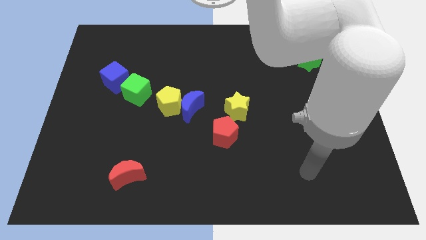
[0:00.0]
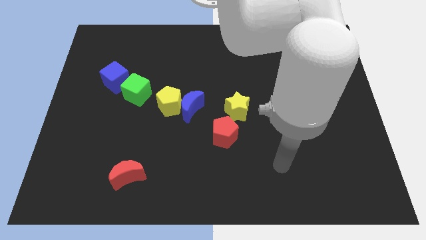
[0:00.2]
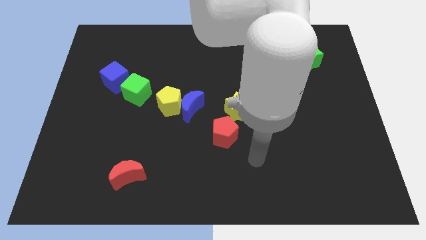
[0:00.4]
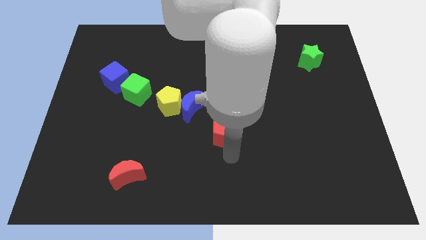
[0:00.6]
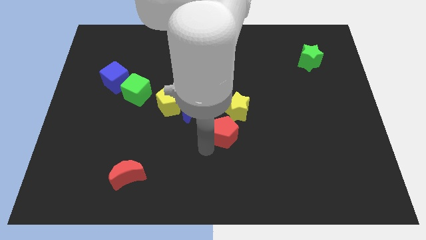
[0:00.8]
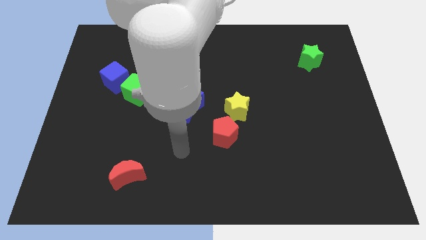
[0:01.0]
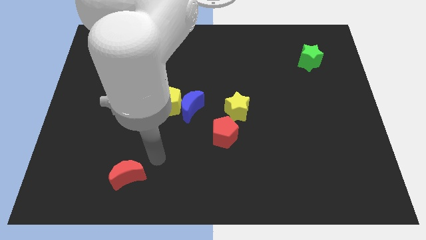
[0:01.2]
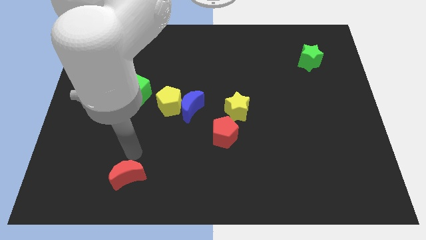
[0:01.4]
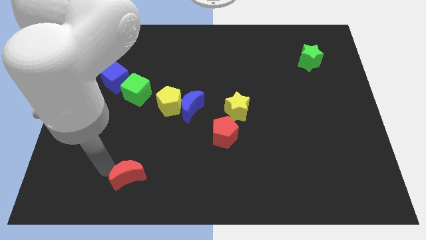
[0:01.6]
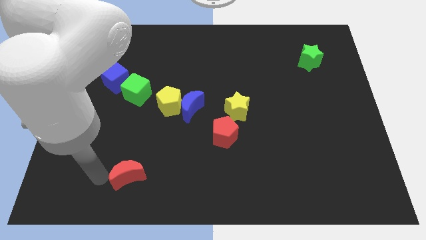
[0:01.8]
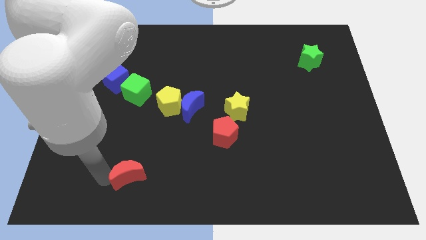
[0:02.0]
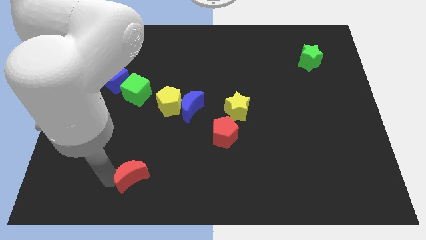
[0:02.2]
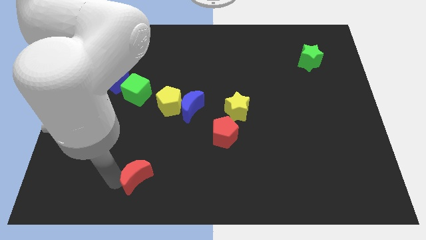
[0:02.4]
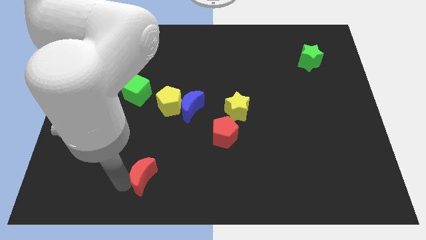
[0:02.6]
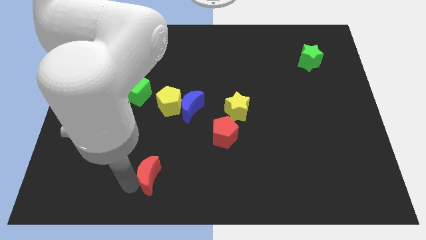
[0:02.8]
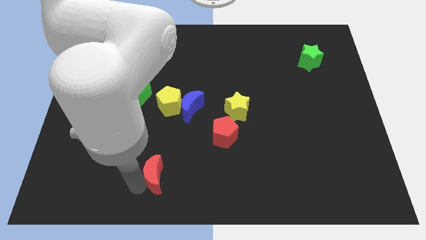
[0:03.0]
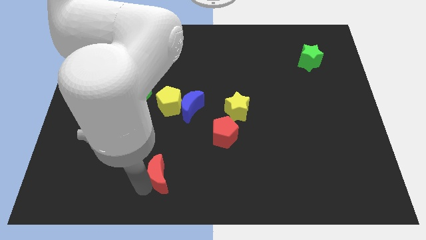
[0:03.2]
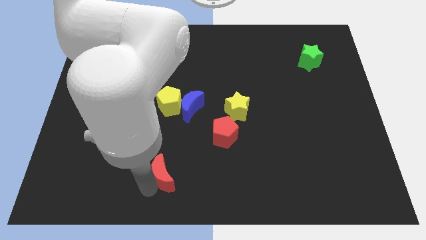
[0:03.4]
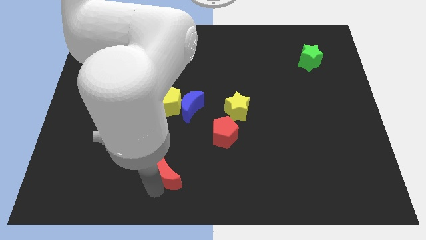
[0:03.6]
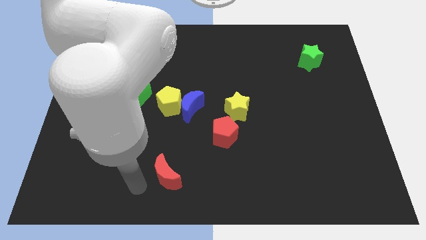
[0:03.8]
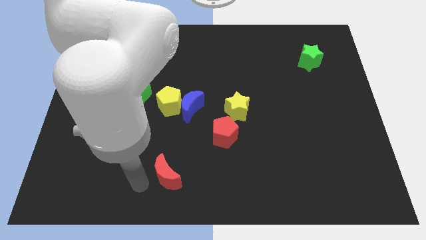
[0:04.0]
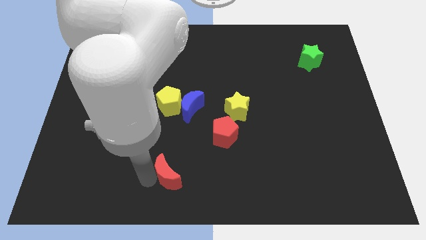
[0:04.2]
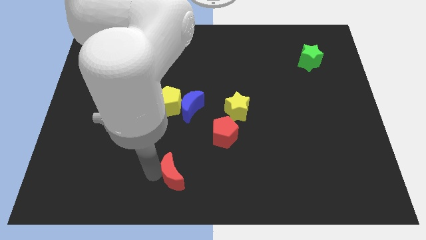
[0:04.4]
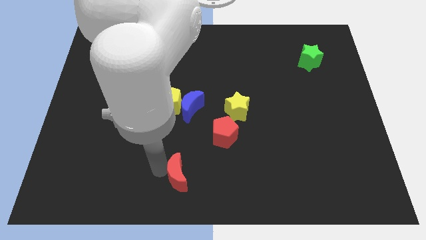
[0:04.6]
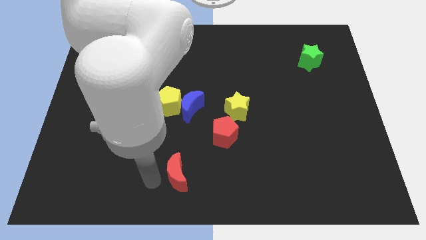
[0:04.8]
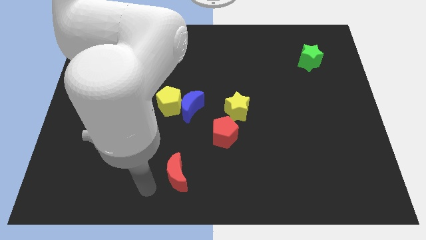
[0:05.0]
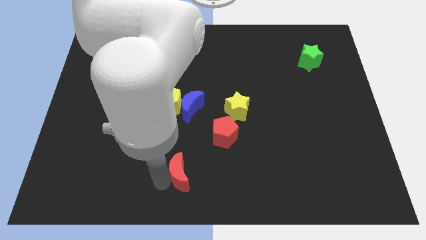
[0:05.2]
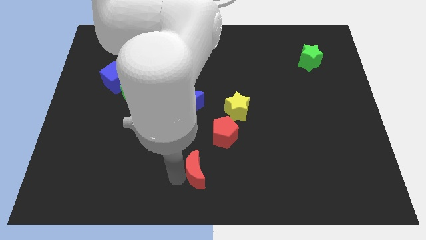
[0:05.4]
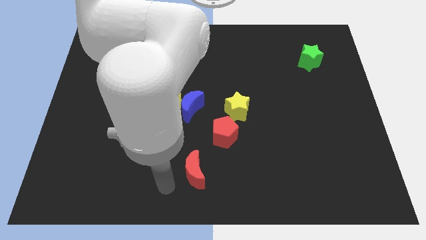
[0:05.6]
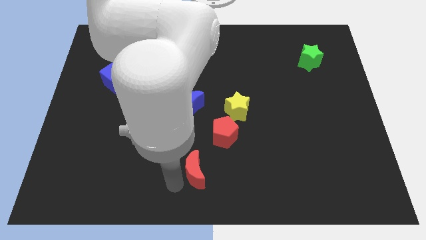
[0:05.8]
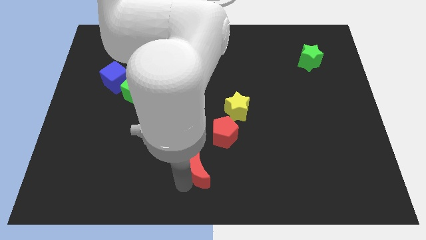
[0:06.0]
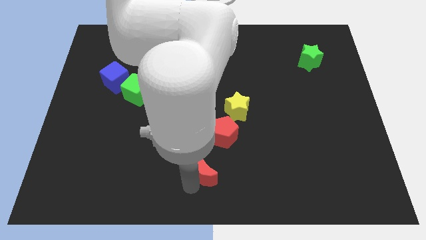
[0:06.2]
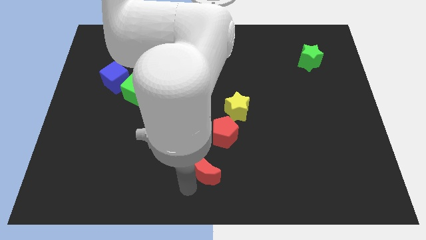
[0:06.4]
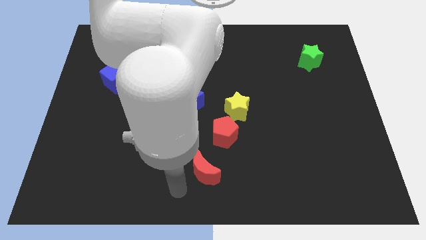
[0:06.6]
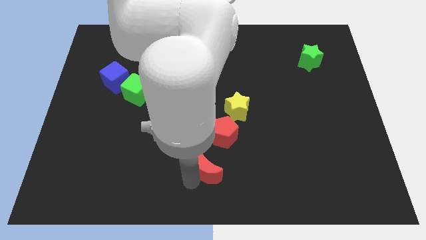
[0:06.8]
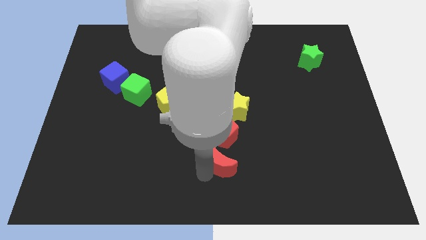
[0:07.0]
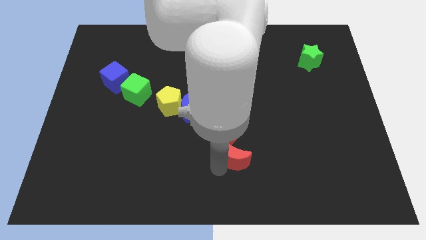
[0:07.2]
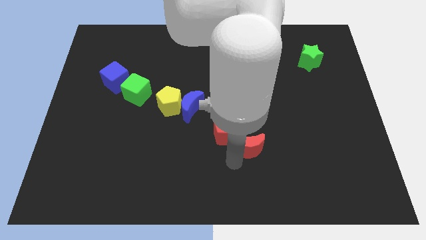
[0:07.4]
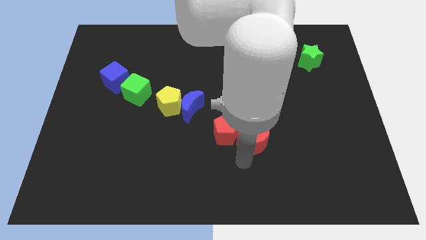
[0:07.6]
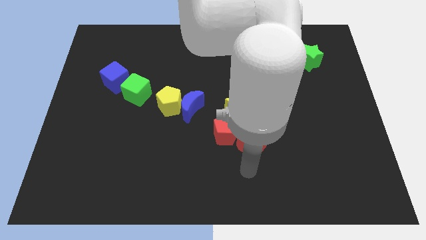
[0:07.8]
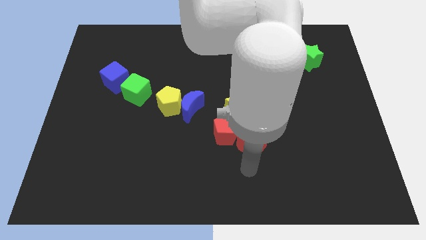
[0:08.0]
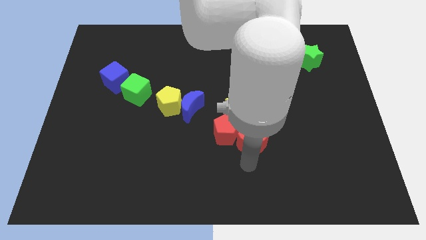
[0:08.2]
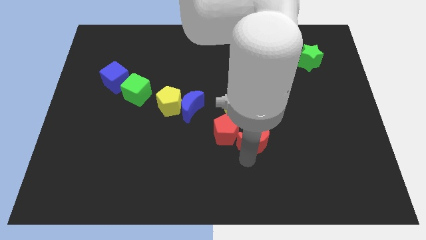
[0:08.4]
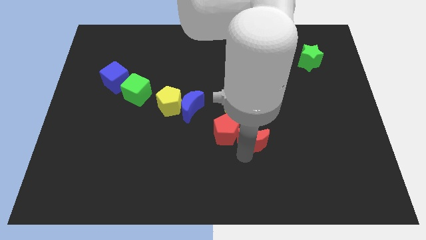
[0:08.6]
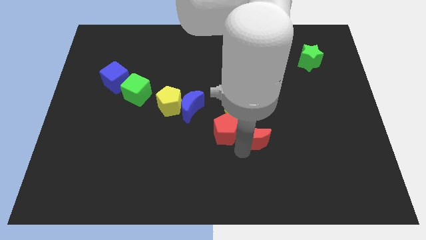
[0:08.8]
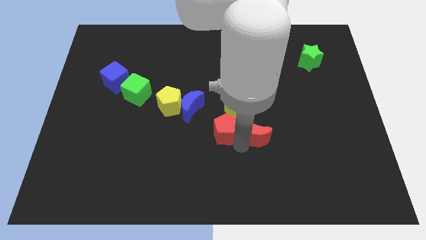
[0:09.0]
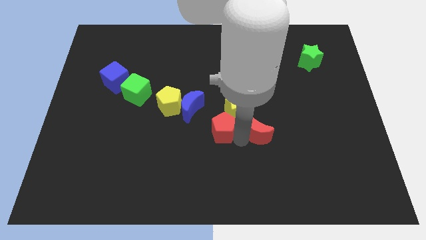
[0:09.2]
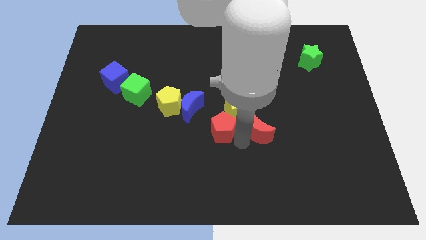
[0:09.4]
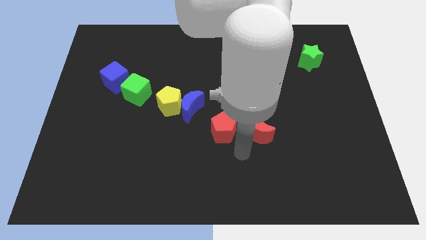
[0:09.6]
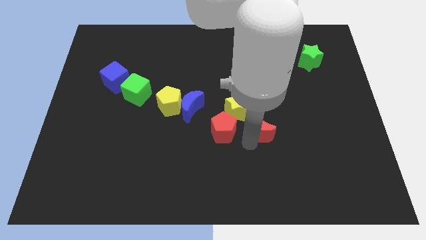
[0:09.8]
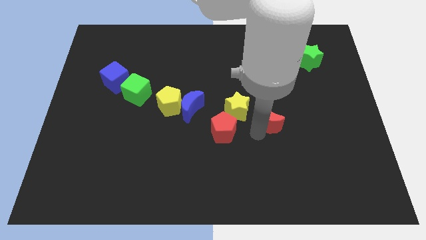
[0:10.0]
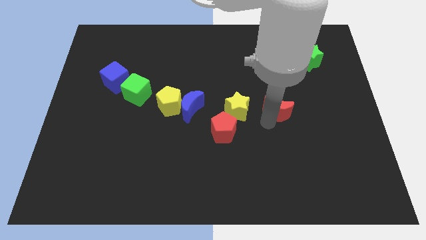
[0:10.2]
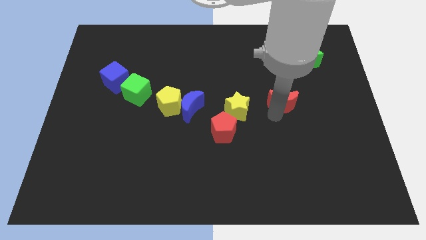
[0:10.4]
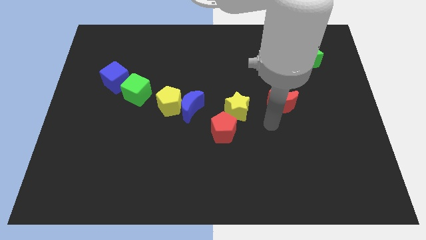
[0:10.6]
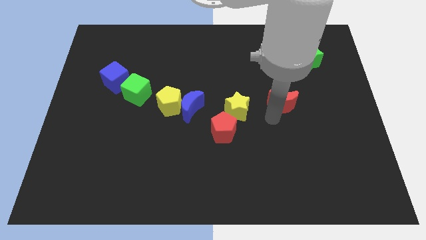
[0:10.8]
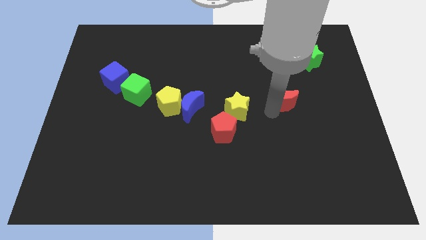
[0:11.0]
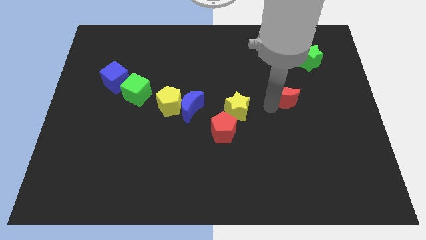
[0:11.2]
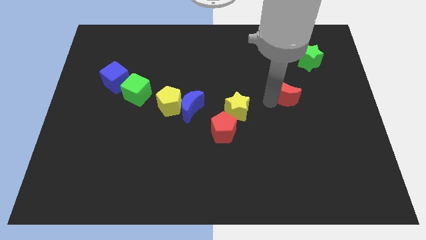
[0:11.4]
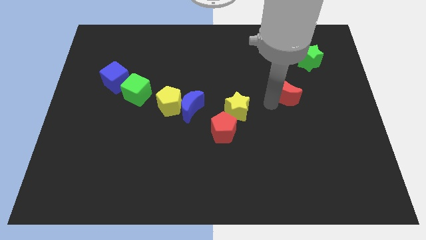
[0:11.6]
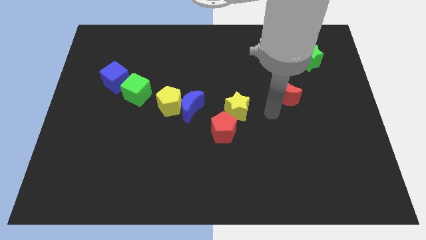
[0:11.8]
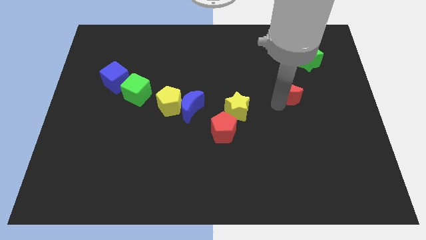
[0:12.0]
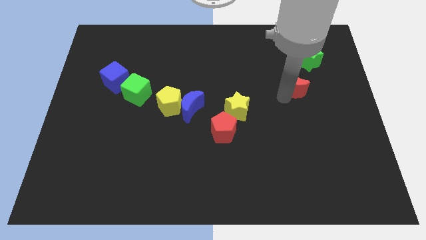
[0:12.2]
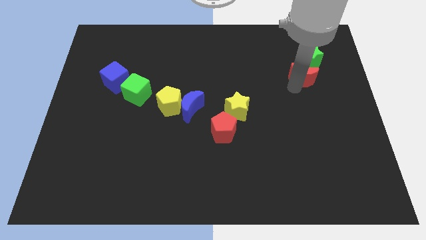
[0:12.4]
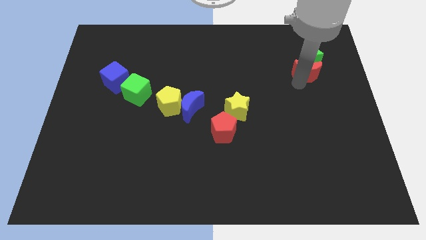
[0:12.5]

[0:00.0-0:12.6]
push the red moon close to the green star

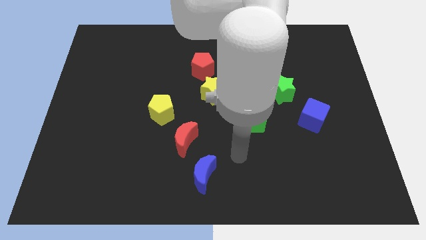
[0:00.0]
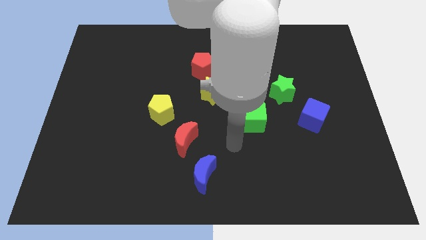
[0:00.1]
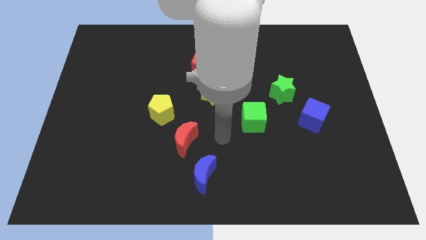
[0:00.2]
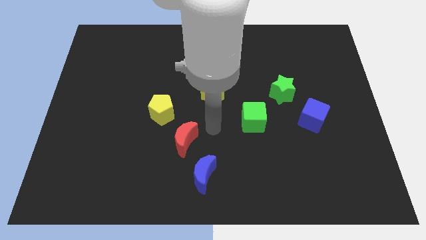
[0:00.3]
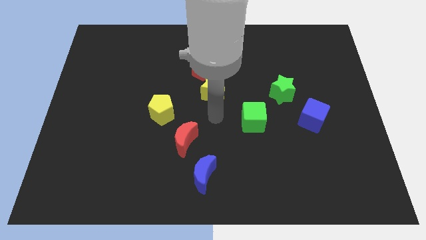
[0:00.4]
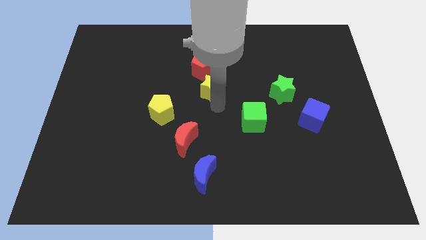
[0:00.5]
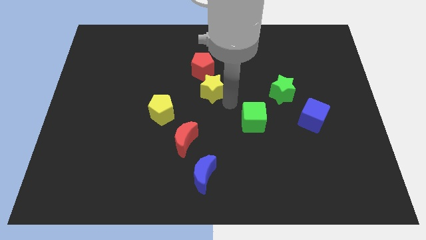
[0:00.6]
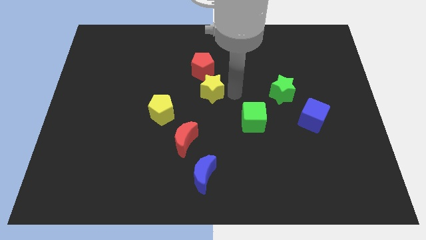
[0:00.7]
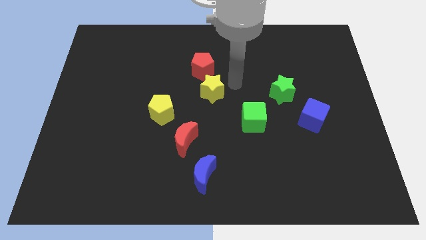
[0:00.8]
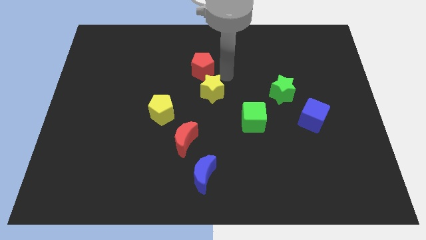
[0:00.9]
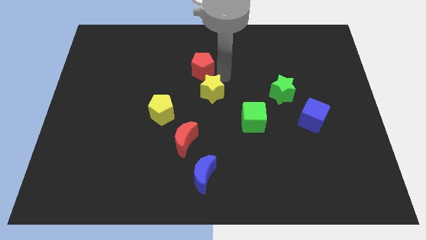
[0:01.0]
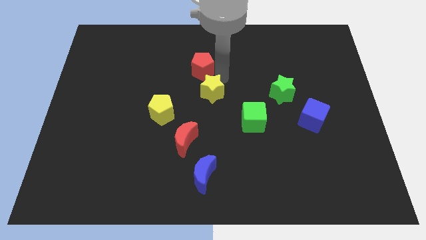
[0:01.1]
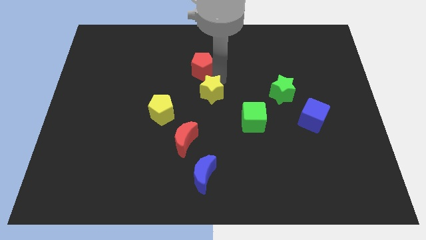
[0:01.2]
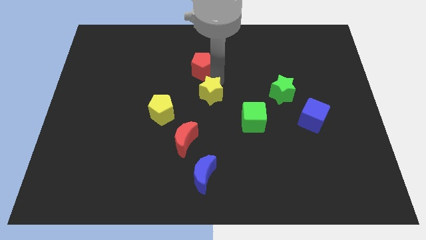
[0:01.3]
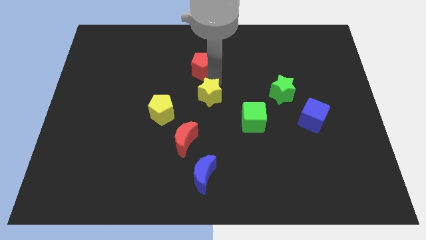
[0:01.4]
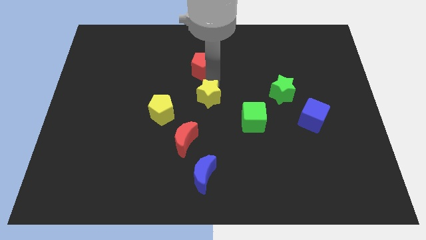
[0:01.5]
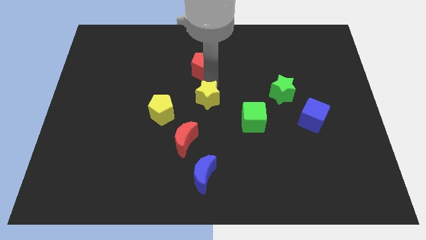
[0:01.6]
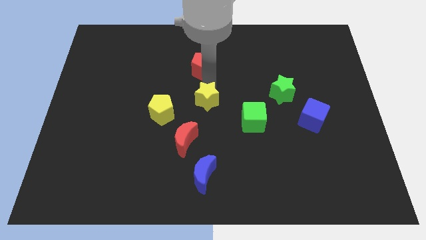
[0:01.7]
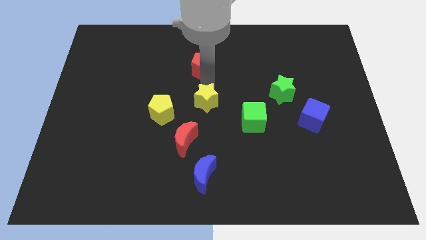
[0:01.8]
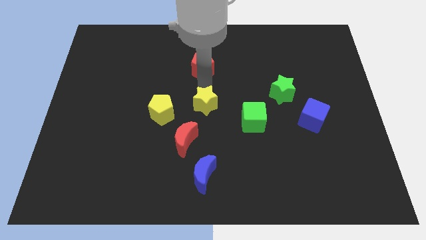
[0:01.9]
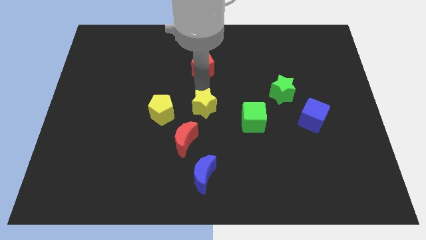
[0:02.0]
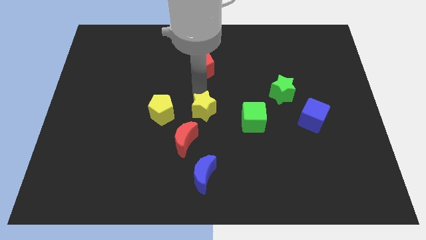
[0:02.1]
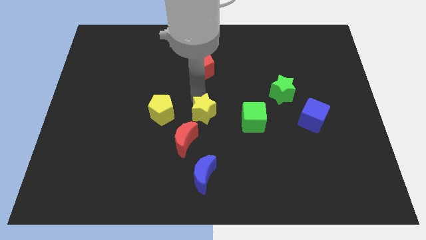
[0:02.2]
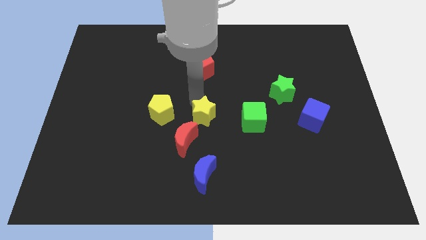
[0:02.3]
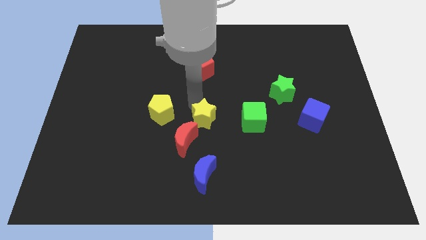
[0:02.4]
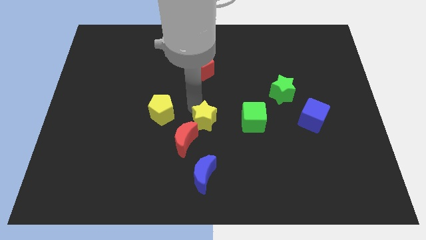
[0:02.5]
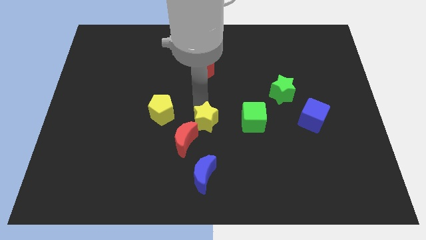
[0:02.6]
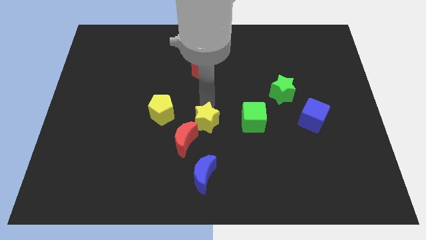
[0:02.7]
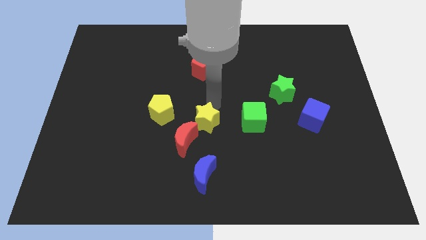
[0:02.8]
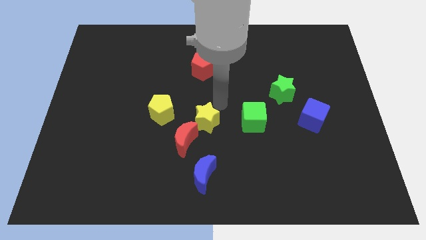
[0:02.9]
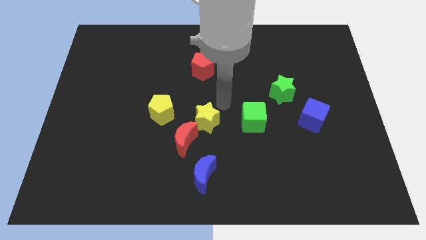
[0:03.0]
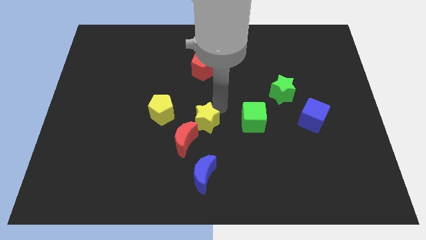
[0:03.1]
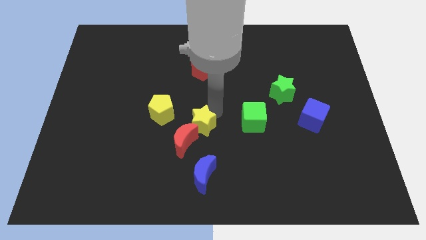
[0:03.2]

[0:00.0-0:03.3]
move the yellow star to the red moon
